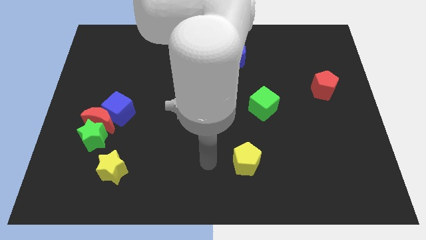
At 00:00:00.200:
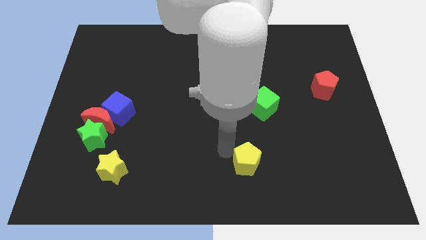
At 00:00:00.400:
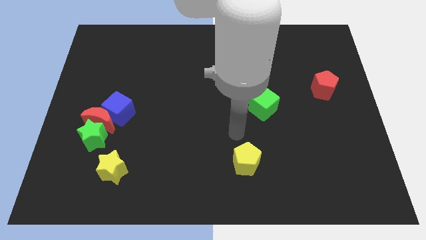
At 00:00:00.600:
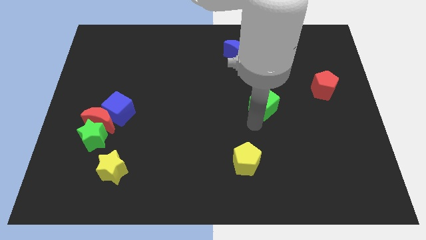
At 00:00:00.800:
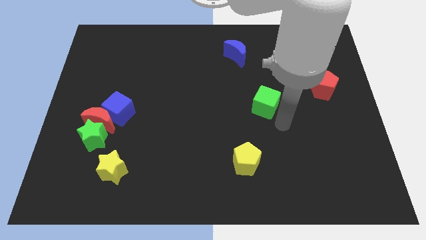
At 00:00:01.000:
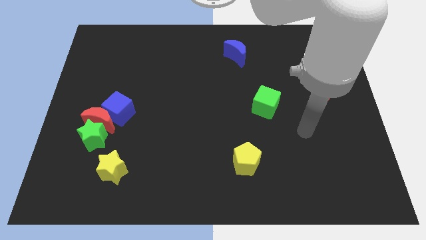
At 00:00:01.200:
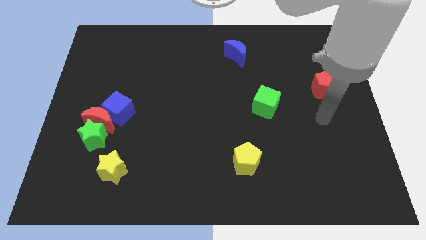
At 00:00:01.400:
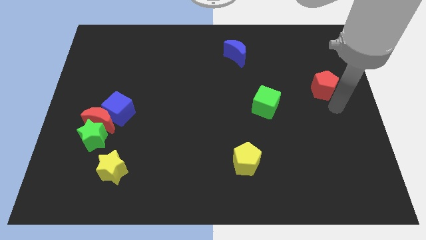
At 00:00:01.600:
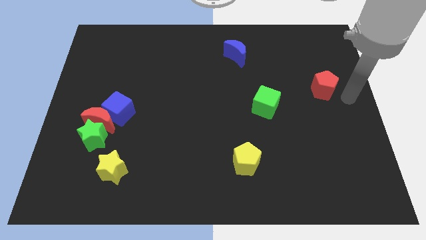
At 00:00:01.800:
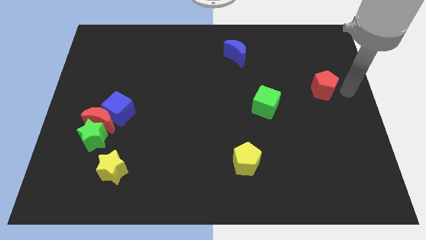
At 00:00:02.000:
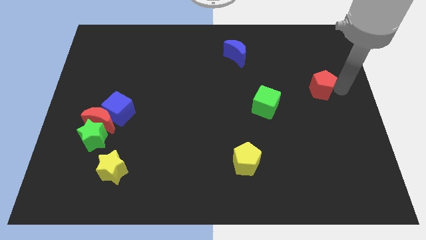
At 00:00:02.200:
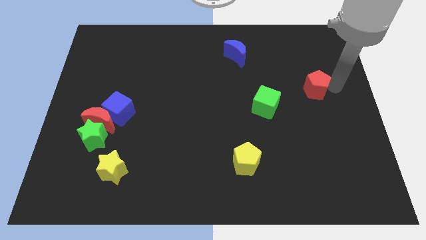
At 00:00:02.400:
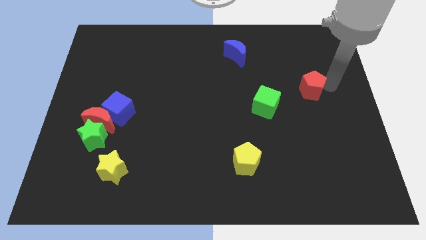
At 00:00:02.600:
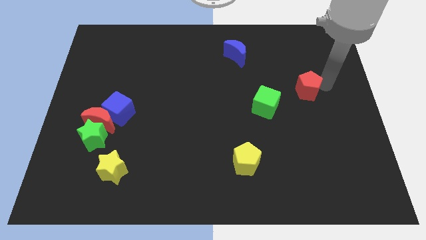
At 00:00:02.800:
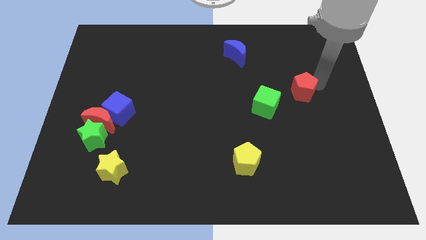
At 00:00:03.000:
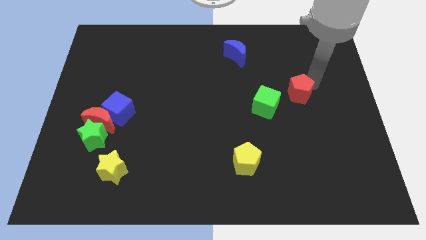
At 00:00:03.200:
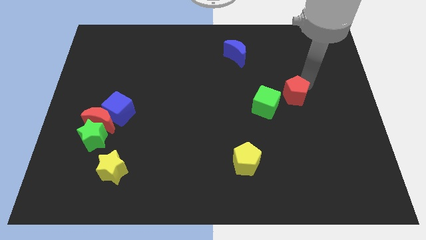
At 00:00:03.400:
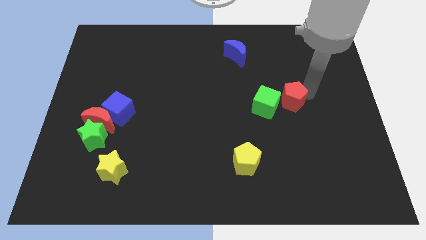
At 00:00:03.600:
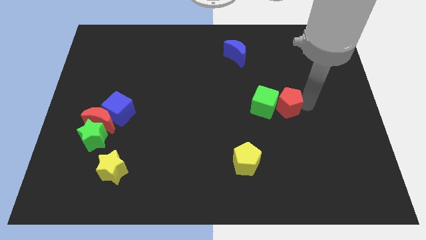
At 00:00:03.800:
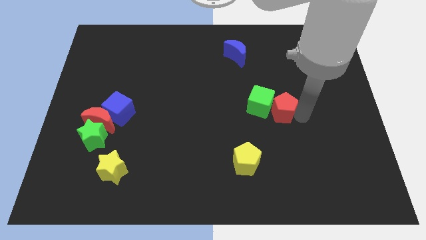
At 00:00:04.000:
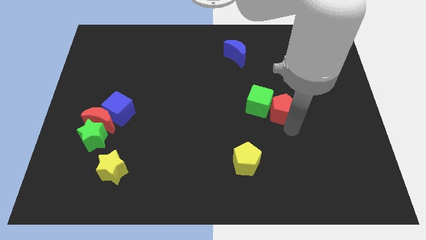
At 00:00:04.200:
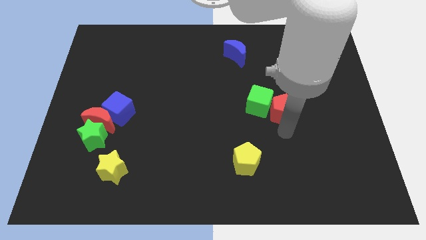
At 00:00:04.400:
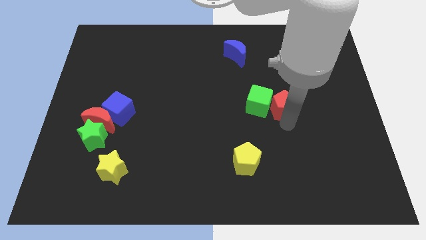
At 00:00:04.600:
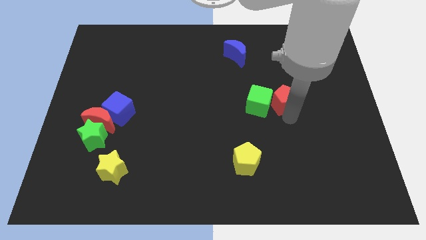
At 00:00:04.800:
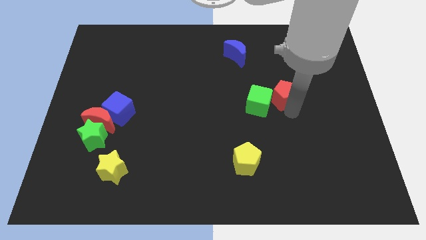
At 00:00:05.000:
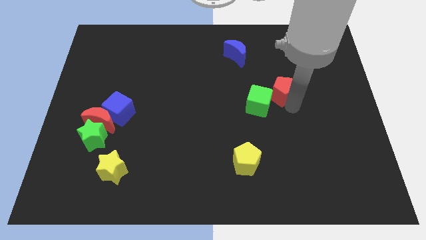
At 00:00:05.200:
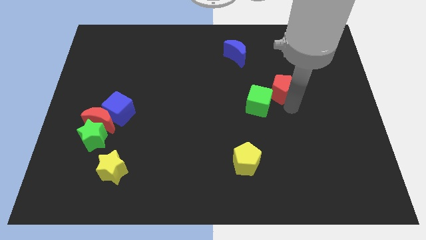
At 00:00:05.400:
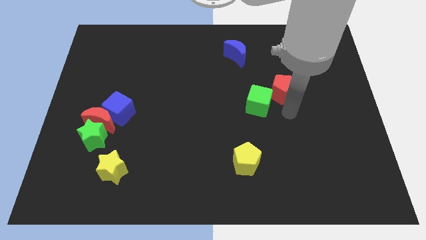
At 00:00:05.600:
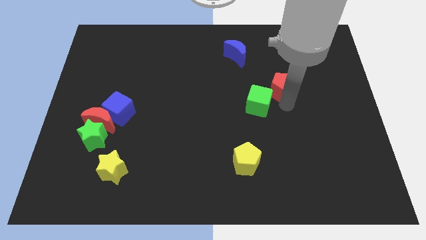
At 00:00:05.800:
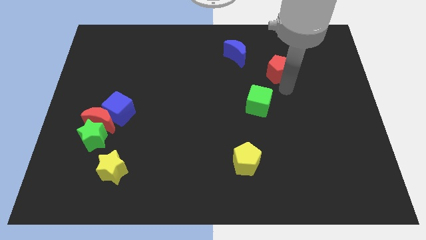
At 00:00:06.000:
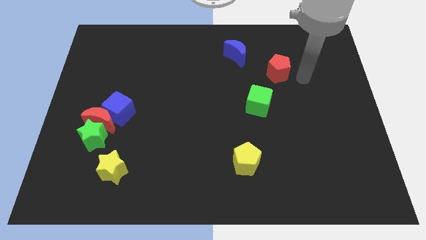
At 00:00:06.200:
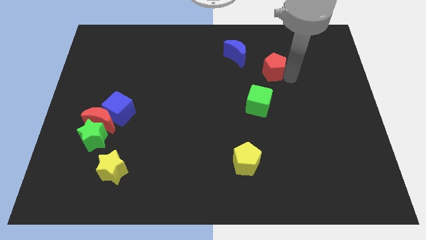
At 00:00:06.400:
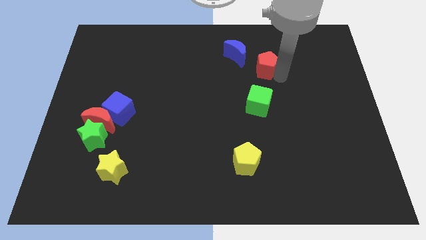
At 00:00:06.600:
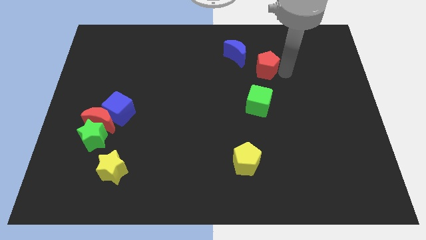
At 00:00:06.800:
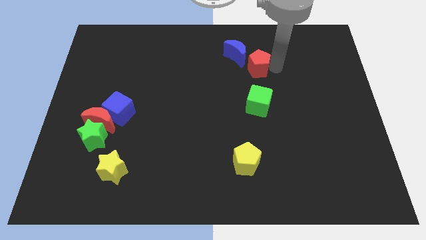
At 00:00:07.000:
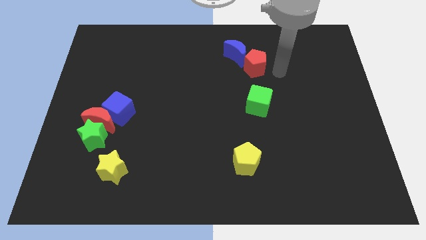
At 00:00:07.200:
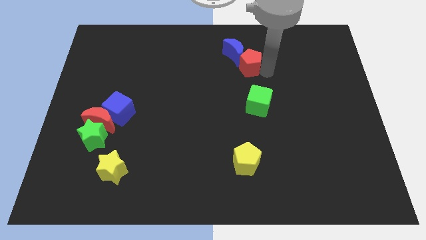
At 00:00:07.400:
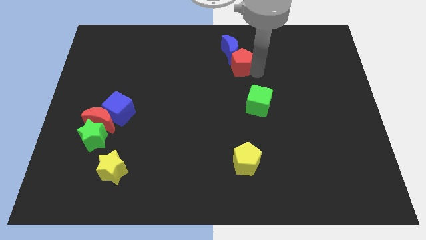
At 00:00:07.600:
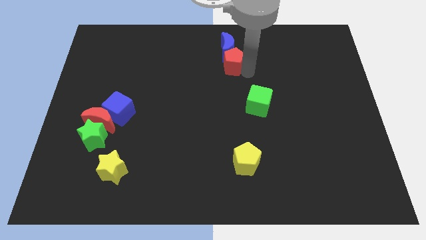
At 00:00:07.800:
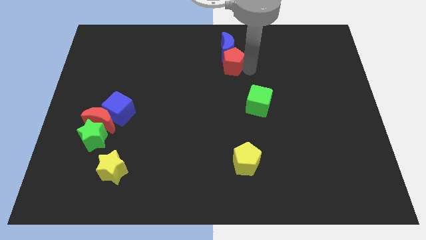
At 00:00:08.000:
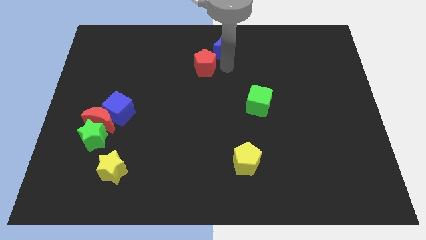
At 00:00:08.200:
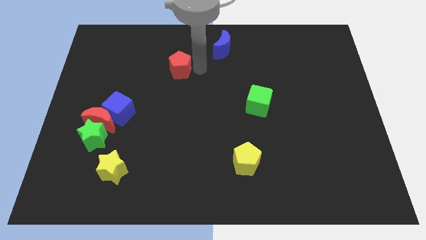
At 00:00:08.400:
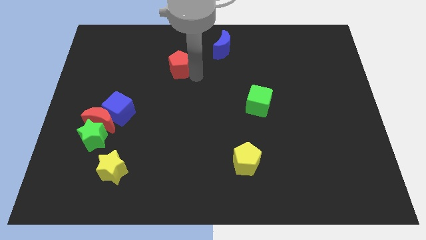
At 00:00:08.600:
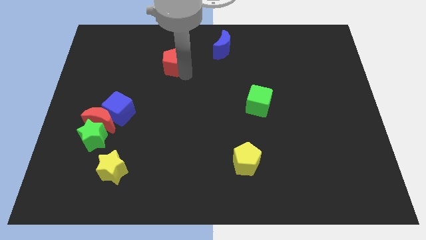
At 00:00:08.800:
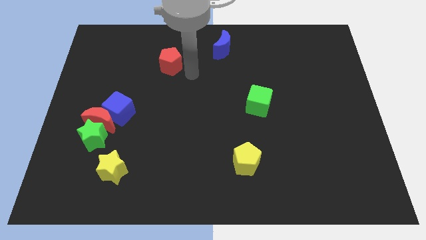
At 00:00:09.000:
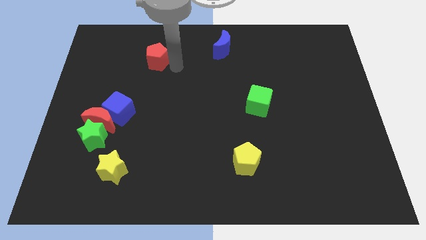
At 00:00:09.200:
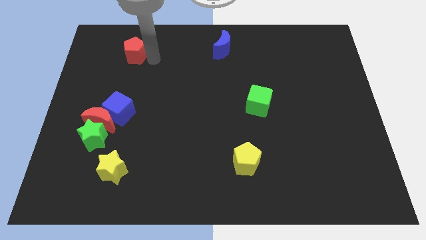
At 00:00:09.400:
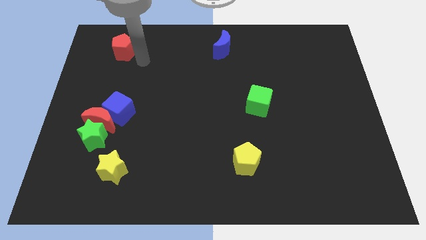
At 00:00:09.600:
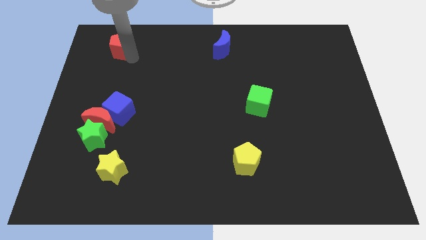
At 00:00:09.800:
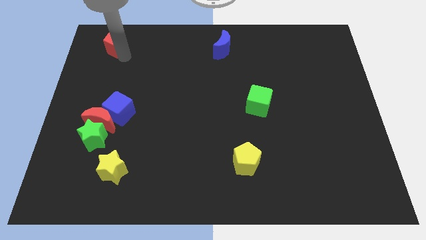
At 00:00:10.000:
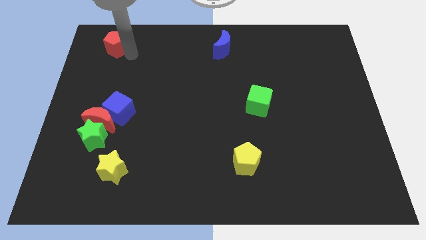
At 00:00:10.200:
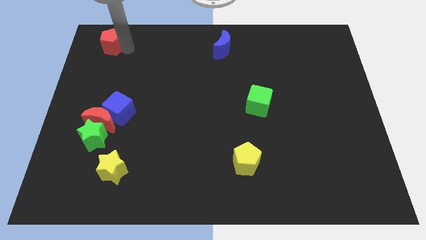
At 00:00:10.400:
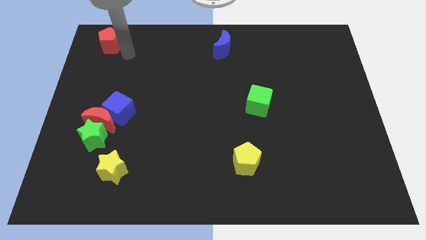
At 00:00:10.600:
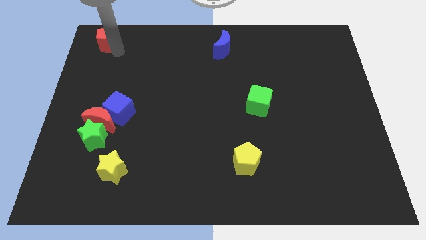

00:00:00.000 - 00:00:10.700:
put the red pentagon to the upper left corner

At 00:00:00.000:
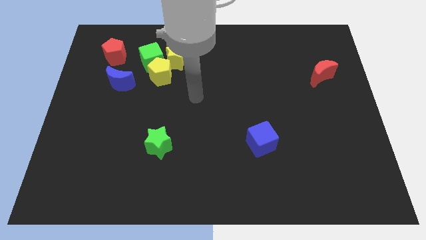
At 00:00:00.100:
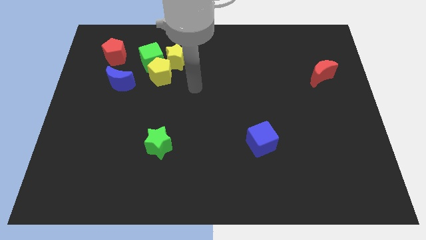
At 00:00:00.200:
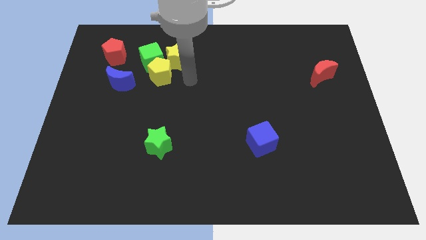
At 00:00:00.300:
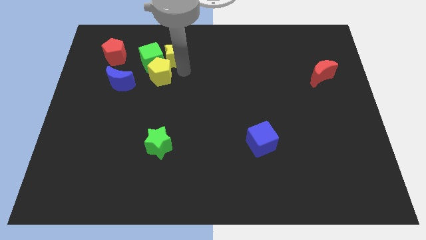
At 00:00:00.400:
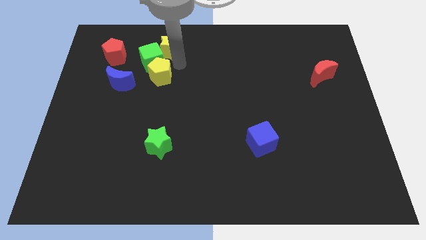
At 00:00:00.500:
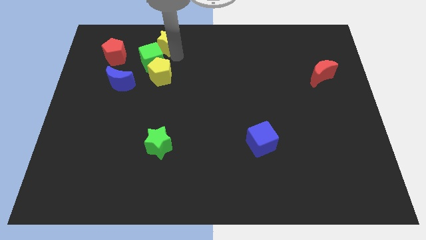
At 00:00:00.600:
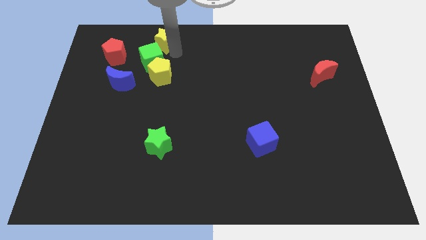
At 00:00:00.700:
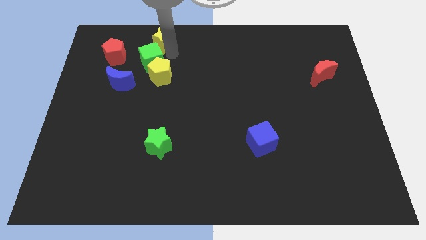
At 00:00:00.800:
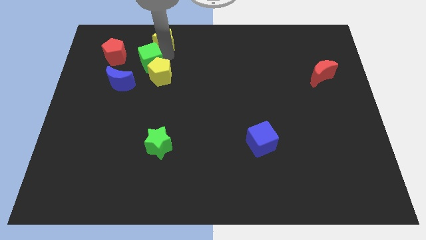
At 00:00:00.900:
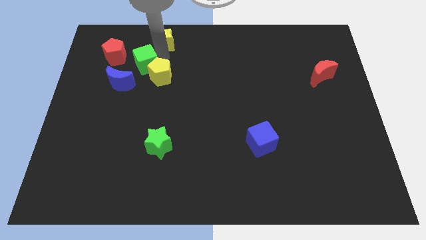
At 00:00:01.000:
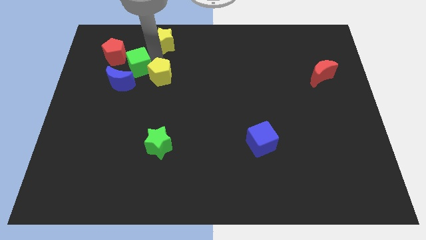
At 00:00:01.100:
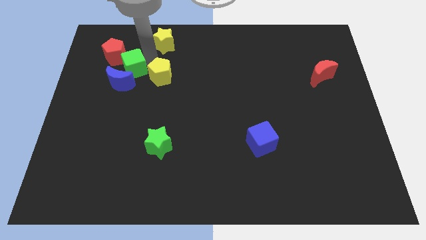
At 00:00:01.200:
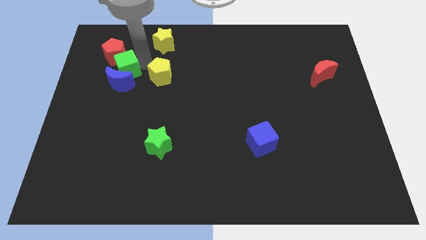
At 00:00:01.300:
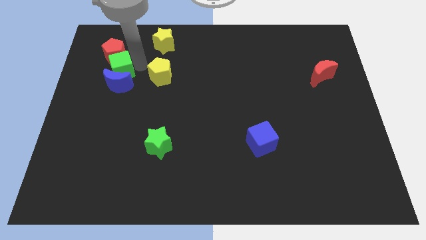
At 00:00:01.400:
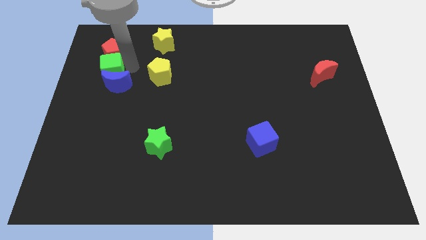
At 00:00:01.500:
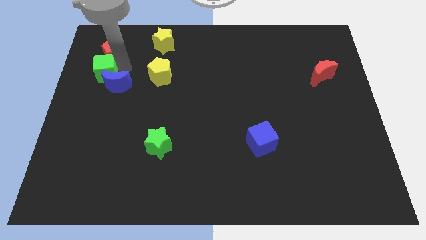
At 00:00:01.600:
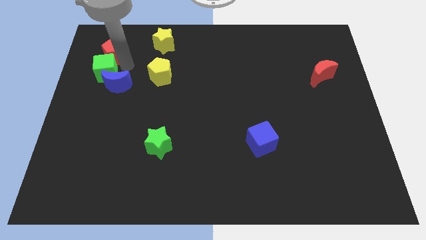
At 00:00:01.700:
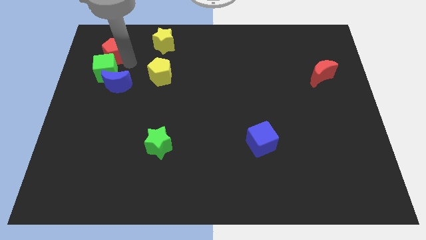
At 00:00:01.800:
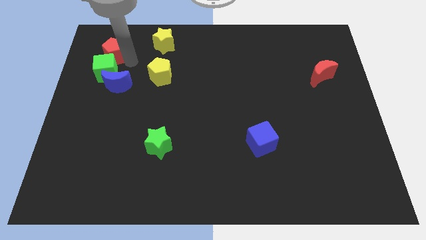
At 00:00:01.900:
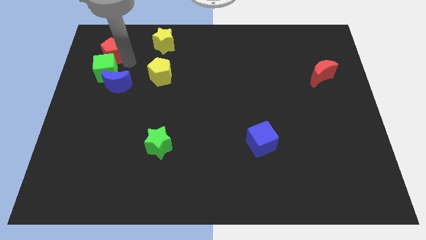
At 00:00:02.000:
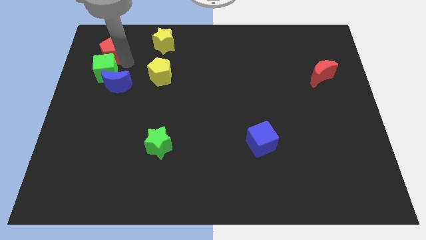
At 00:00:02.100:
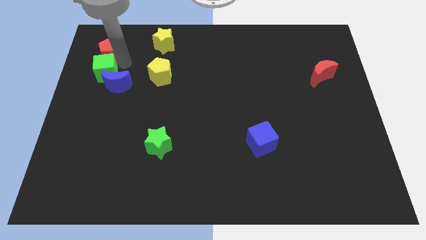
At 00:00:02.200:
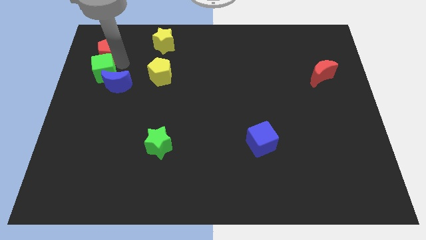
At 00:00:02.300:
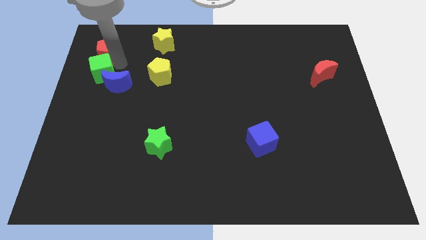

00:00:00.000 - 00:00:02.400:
put the green cube to the left side of the board
